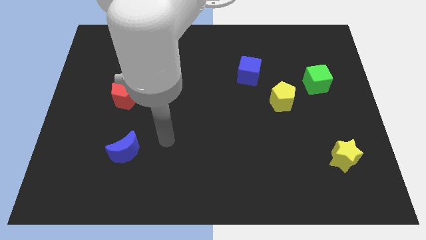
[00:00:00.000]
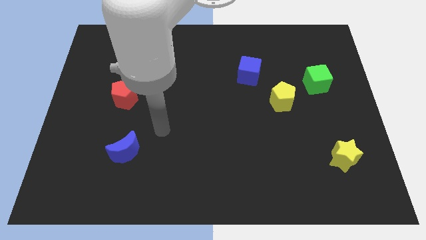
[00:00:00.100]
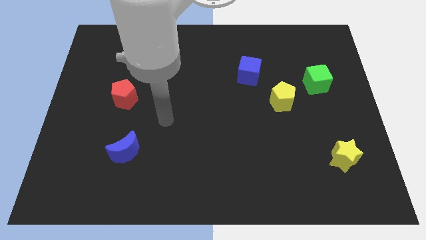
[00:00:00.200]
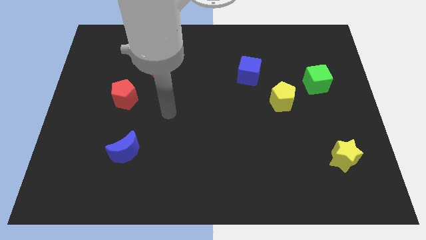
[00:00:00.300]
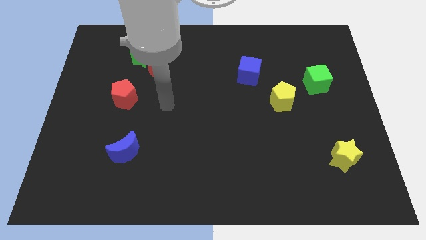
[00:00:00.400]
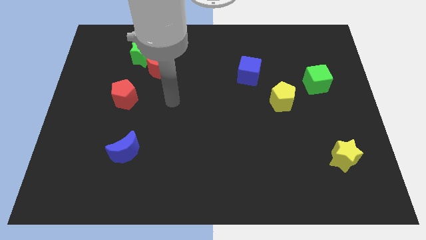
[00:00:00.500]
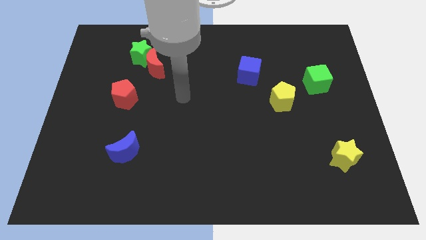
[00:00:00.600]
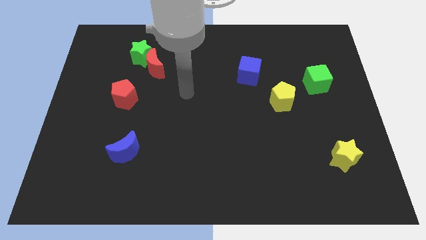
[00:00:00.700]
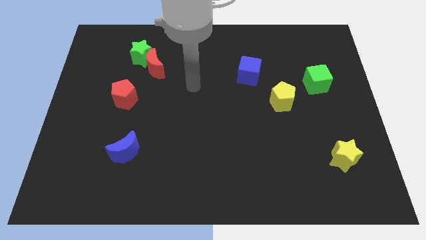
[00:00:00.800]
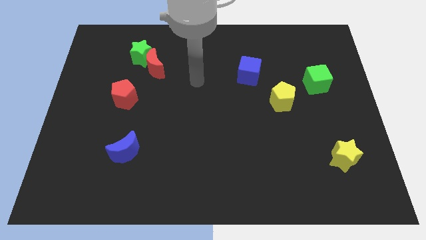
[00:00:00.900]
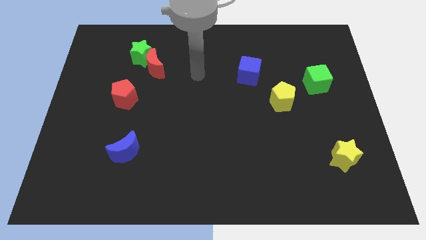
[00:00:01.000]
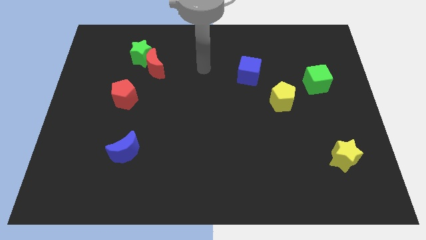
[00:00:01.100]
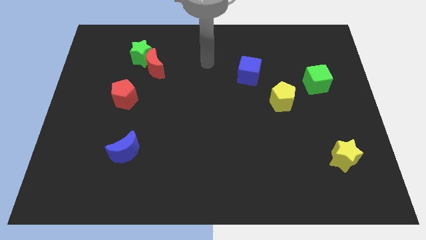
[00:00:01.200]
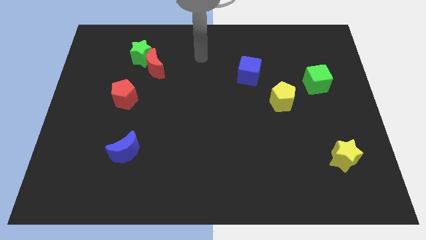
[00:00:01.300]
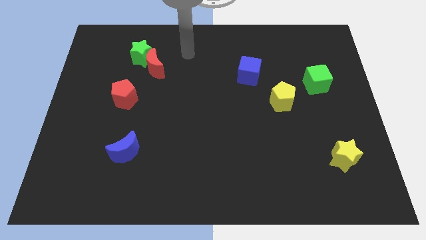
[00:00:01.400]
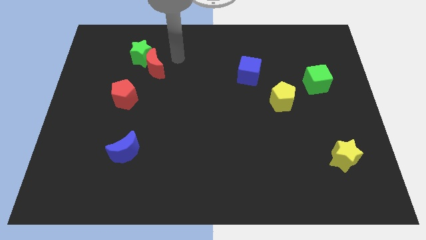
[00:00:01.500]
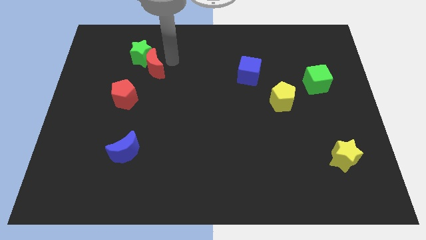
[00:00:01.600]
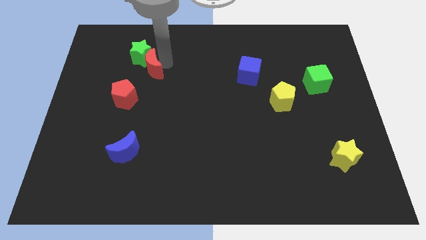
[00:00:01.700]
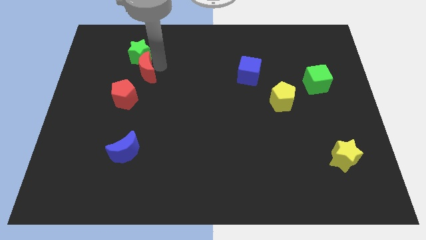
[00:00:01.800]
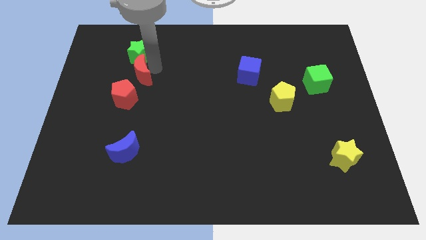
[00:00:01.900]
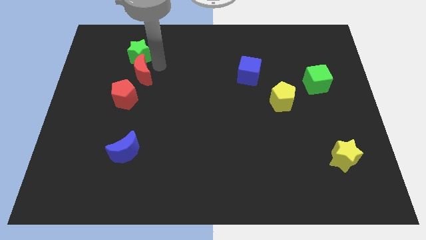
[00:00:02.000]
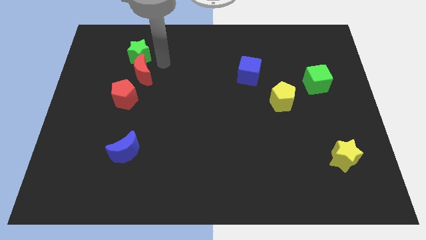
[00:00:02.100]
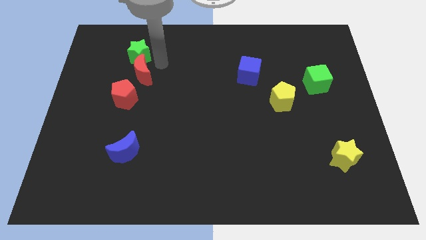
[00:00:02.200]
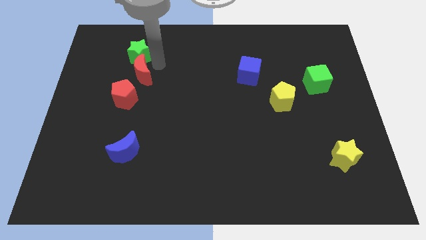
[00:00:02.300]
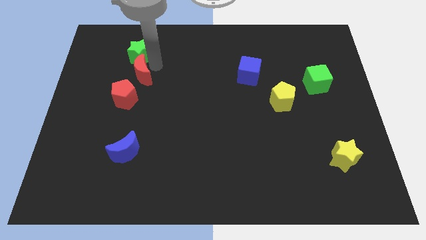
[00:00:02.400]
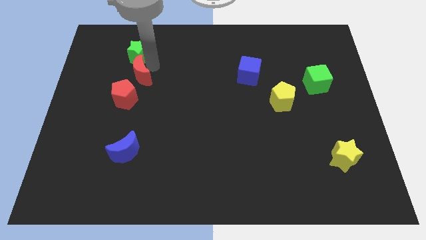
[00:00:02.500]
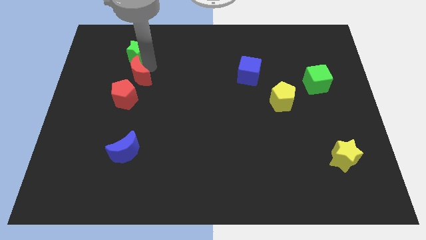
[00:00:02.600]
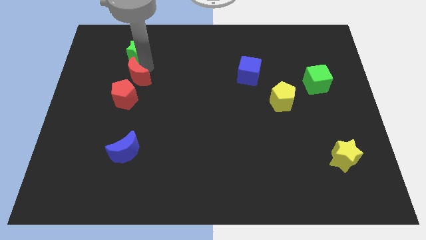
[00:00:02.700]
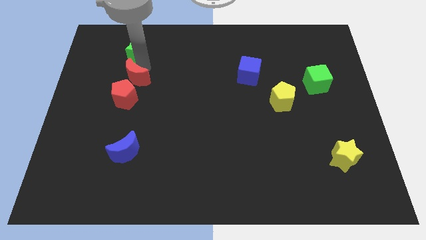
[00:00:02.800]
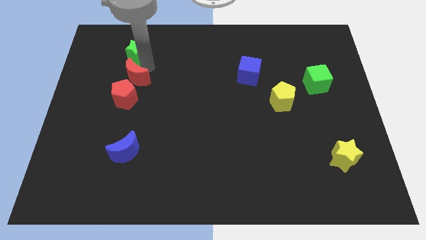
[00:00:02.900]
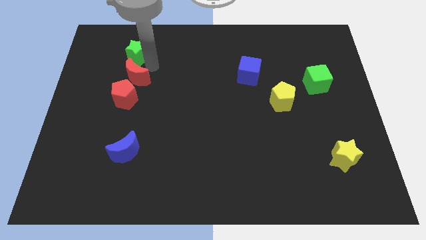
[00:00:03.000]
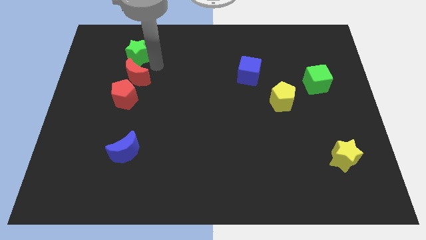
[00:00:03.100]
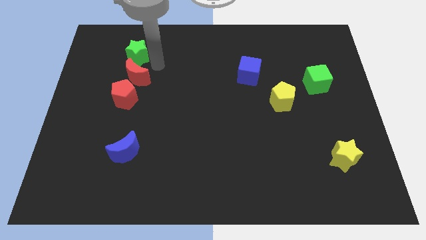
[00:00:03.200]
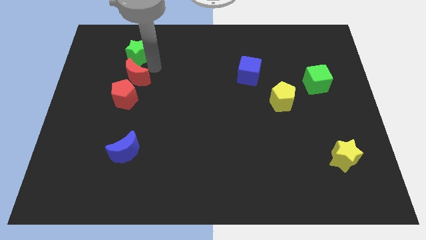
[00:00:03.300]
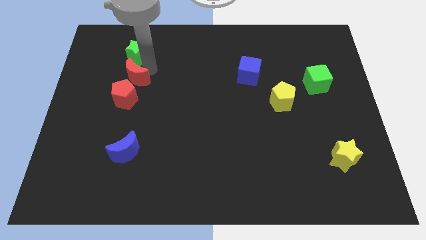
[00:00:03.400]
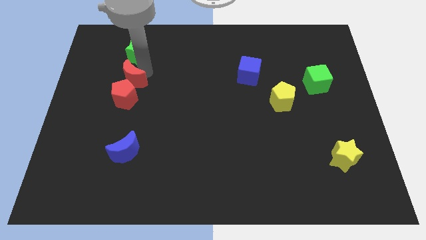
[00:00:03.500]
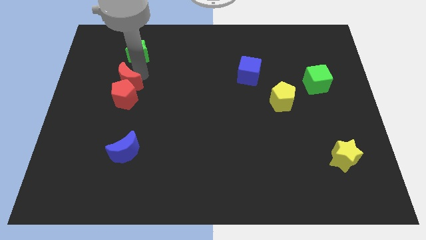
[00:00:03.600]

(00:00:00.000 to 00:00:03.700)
slightly push the red moon downwards and to the left

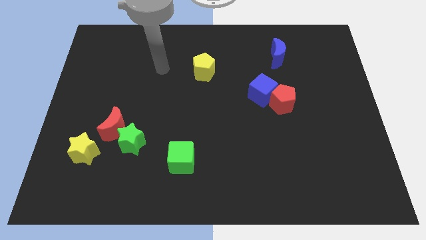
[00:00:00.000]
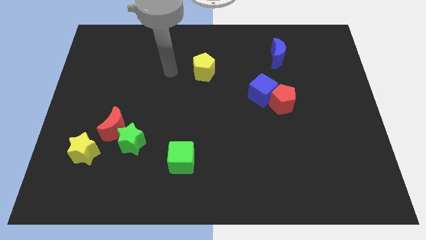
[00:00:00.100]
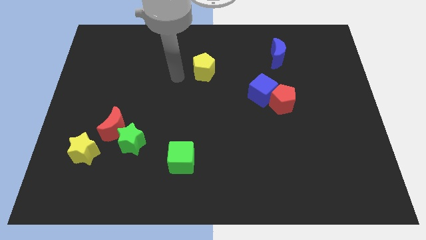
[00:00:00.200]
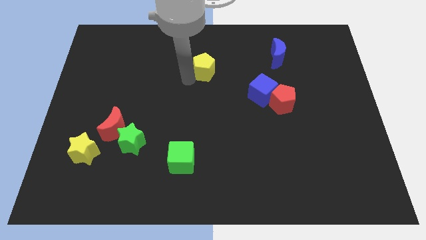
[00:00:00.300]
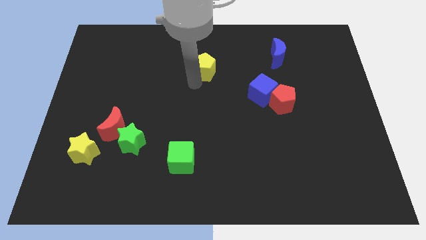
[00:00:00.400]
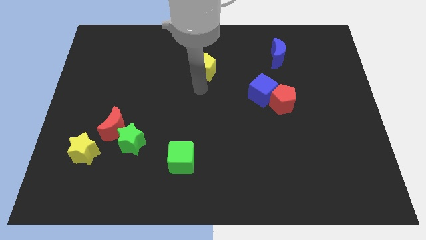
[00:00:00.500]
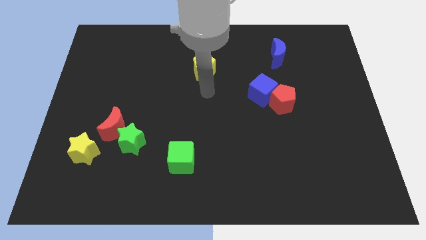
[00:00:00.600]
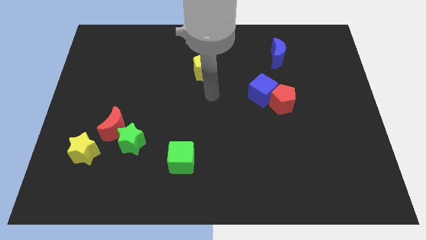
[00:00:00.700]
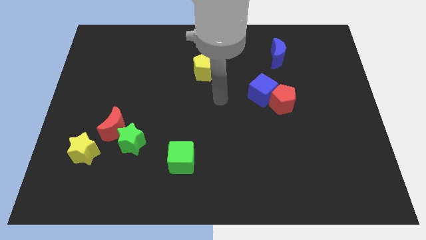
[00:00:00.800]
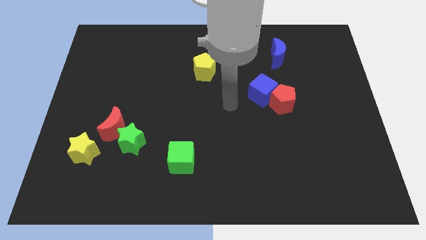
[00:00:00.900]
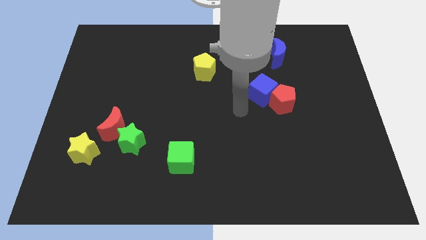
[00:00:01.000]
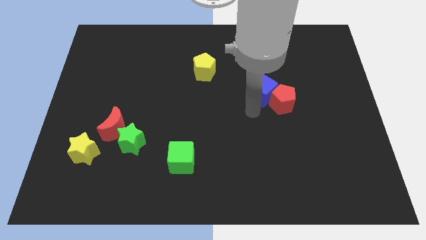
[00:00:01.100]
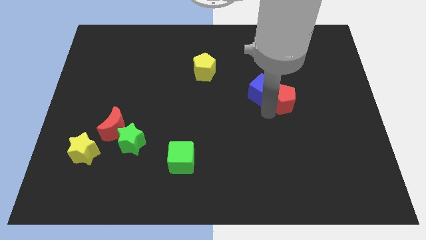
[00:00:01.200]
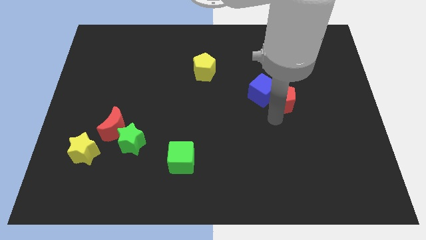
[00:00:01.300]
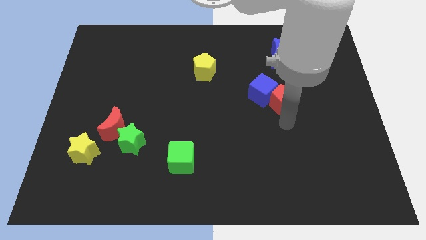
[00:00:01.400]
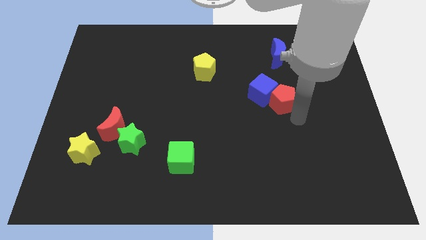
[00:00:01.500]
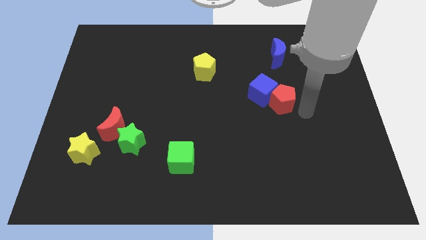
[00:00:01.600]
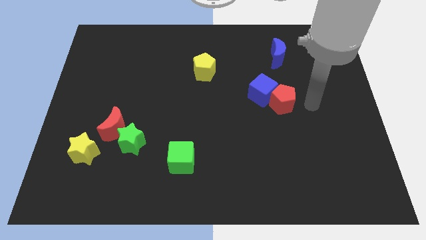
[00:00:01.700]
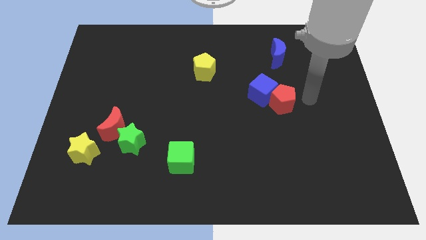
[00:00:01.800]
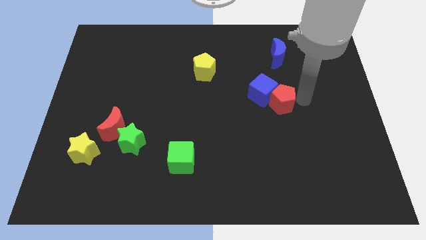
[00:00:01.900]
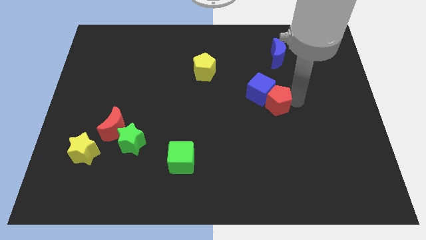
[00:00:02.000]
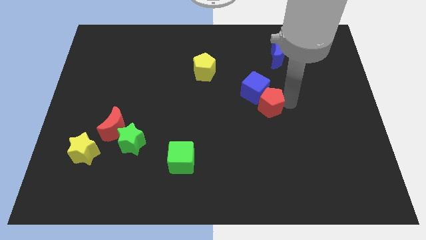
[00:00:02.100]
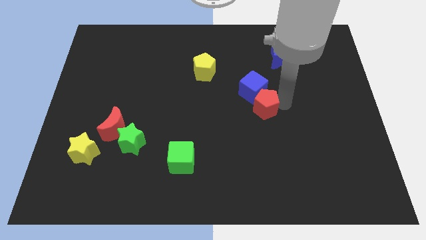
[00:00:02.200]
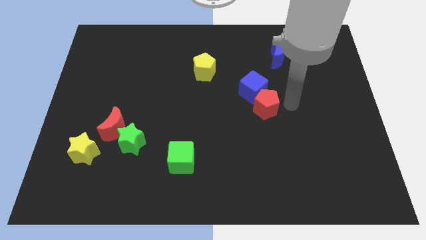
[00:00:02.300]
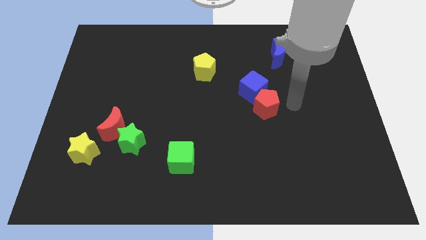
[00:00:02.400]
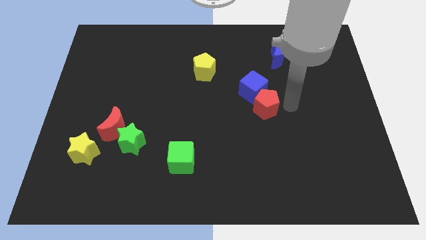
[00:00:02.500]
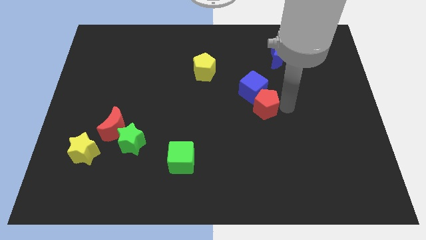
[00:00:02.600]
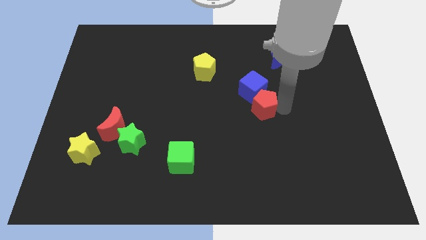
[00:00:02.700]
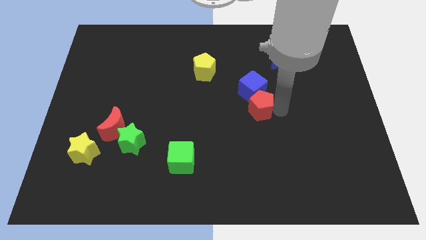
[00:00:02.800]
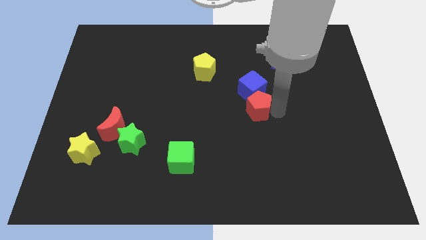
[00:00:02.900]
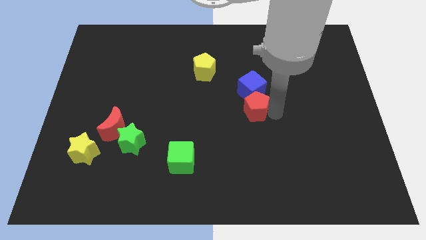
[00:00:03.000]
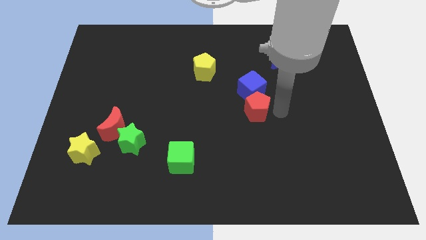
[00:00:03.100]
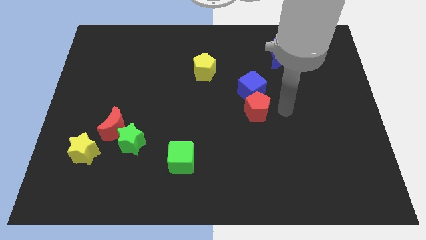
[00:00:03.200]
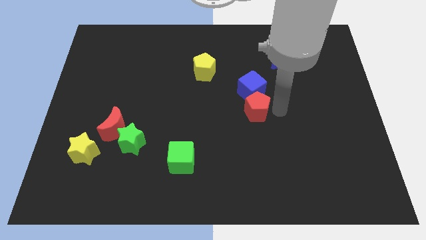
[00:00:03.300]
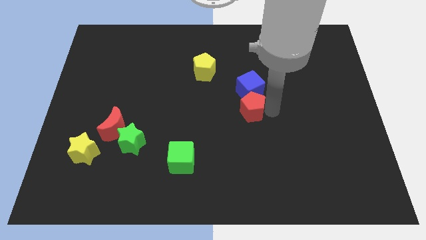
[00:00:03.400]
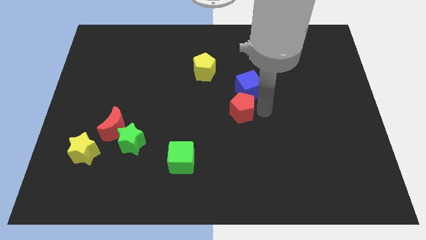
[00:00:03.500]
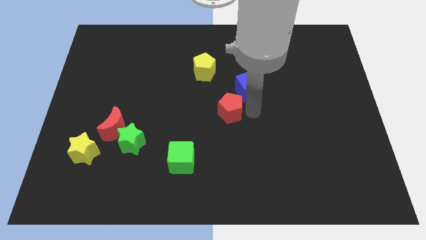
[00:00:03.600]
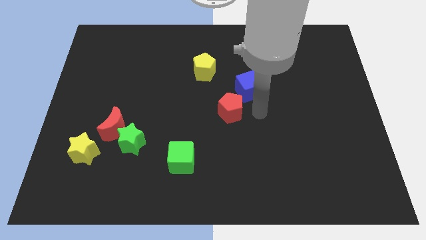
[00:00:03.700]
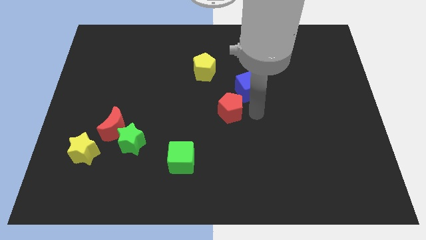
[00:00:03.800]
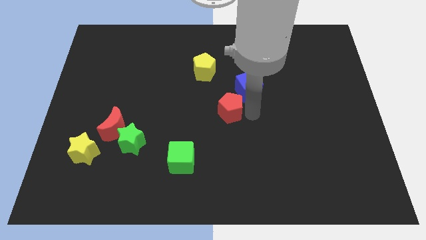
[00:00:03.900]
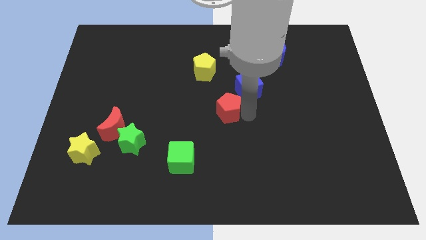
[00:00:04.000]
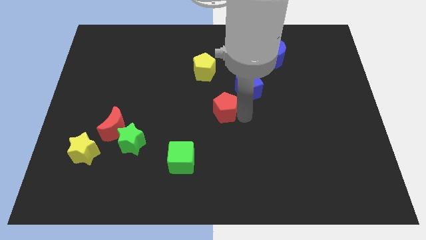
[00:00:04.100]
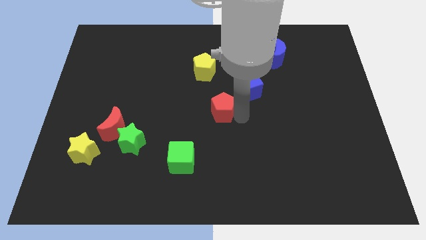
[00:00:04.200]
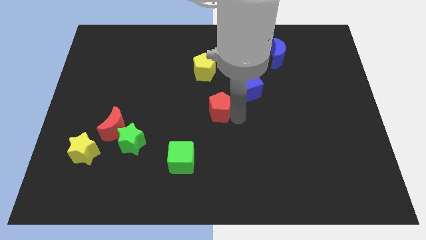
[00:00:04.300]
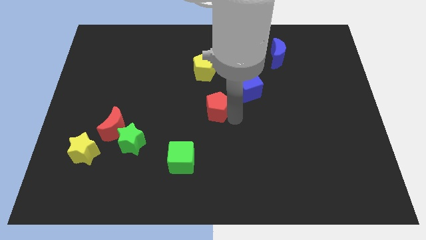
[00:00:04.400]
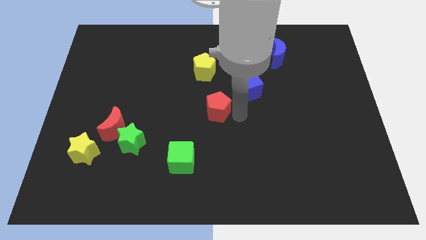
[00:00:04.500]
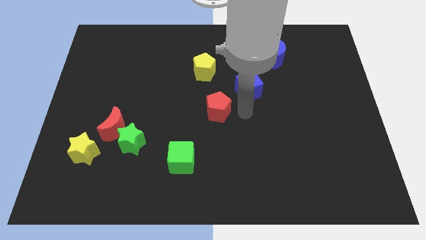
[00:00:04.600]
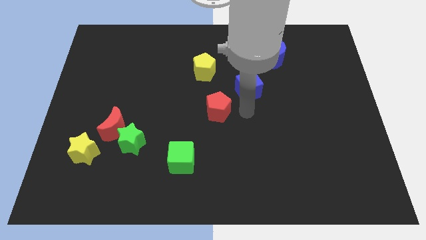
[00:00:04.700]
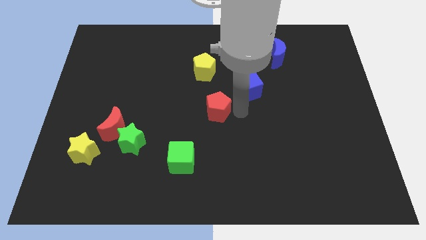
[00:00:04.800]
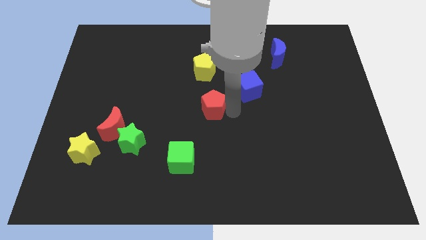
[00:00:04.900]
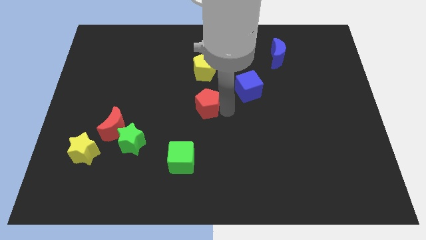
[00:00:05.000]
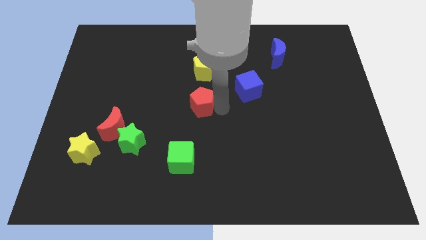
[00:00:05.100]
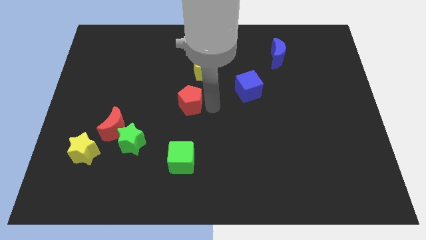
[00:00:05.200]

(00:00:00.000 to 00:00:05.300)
move the red pentagon to the left
